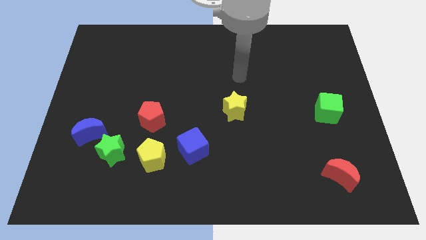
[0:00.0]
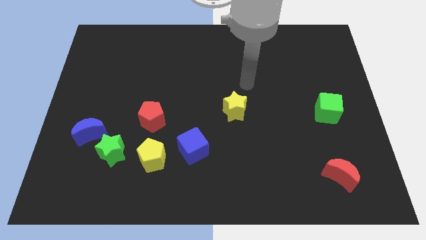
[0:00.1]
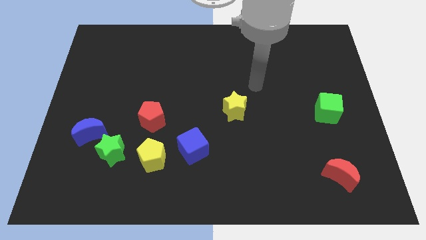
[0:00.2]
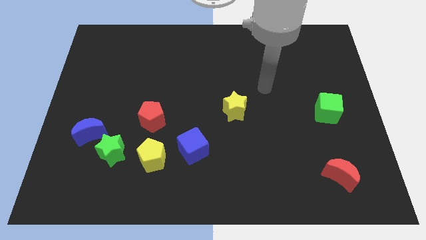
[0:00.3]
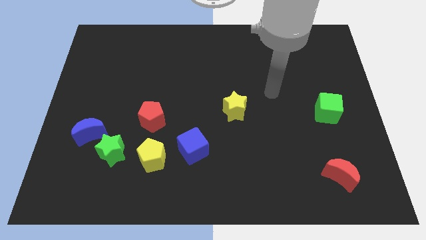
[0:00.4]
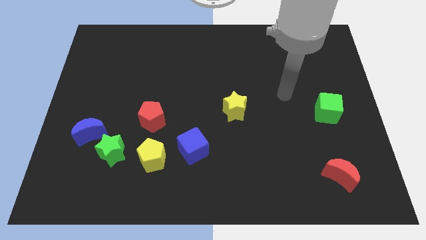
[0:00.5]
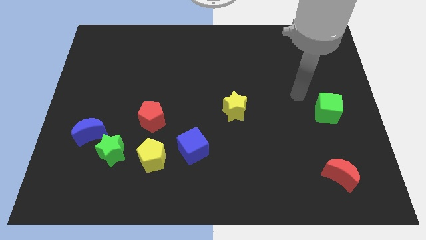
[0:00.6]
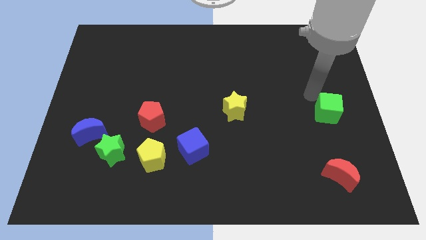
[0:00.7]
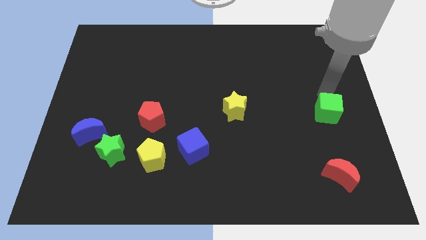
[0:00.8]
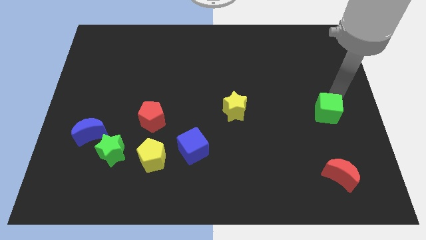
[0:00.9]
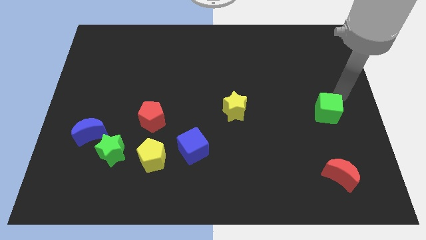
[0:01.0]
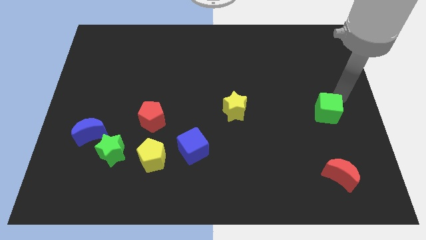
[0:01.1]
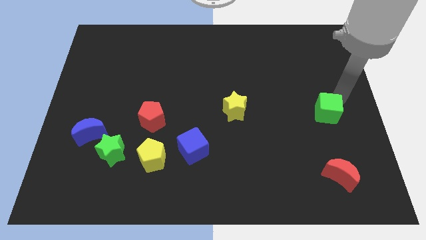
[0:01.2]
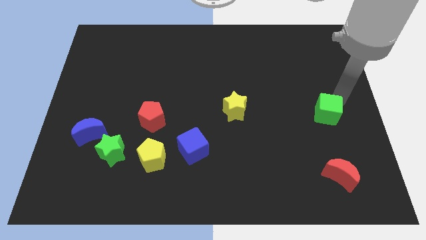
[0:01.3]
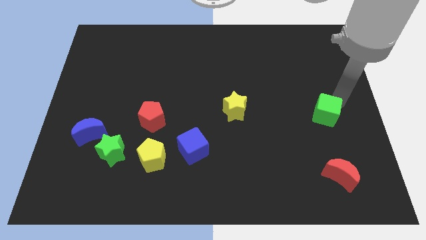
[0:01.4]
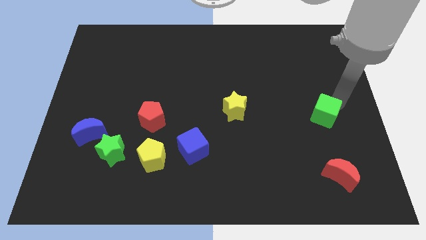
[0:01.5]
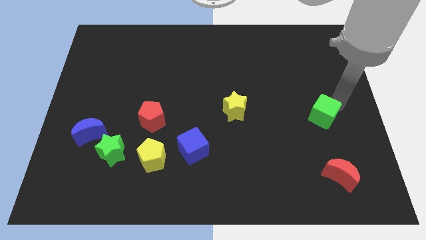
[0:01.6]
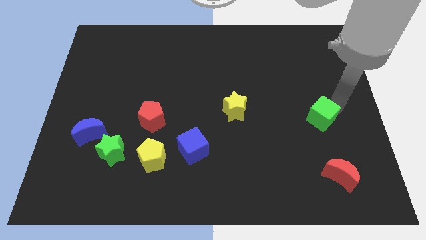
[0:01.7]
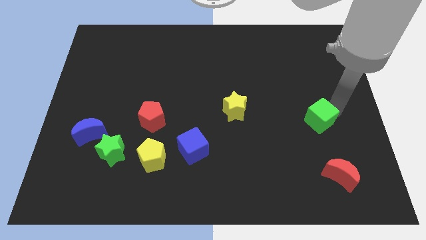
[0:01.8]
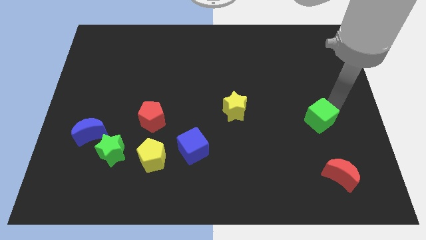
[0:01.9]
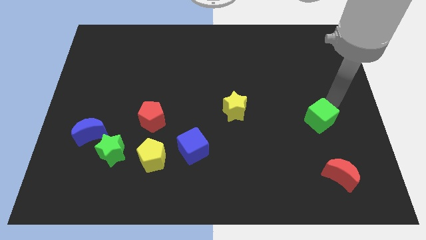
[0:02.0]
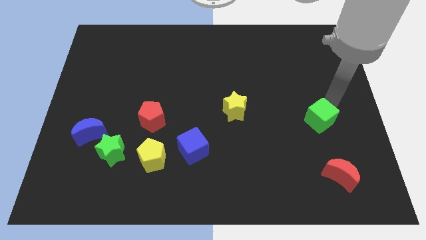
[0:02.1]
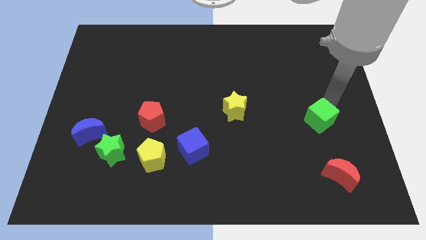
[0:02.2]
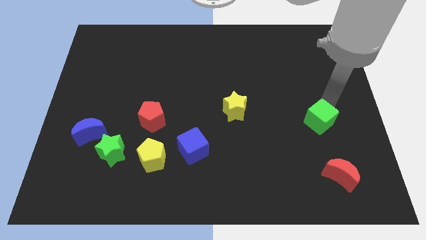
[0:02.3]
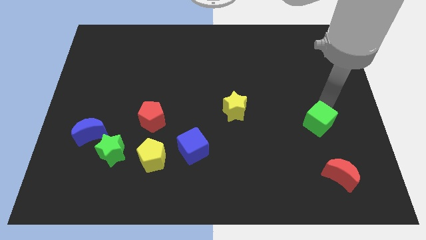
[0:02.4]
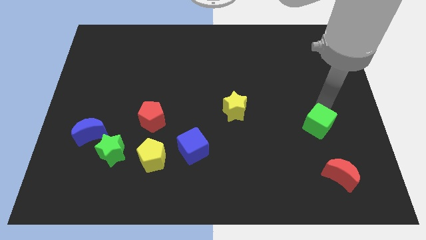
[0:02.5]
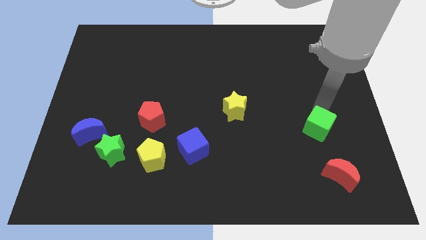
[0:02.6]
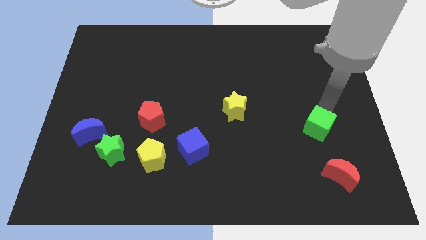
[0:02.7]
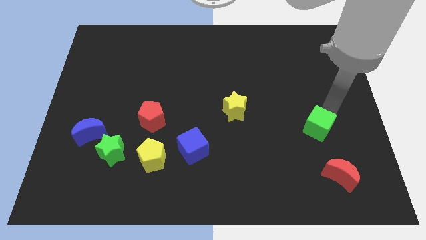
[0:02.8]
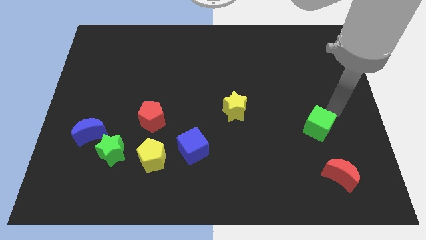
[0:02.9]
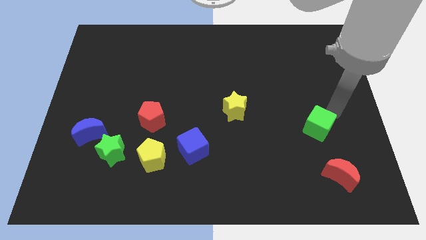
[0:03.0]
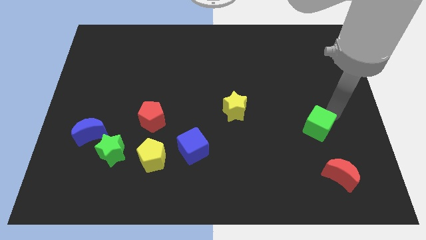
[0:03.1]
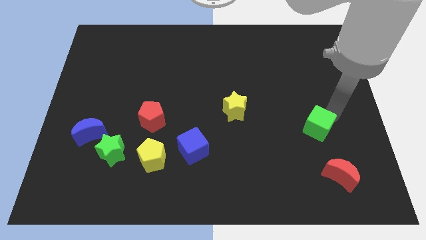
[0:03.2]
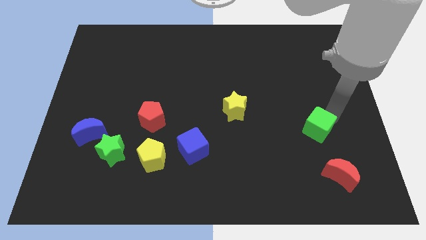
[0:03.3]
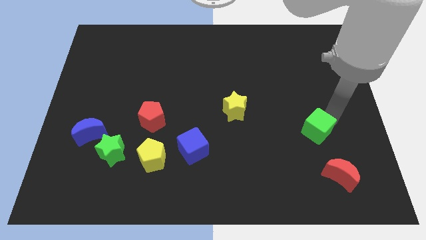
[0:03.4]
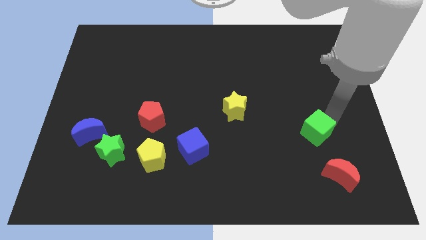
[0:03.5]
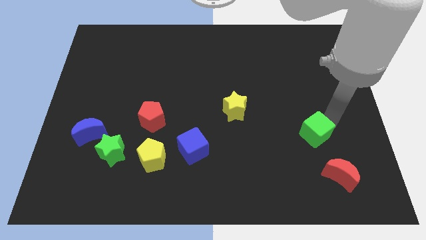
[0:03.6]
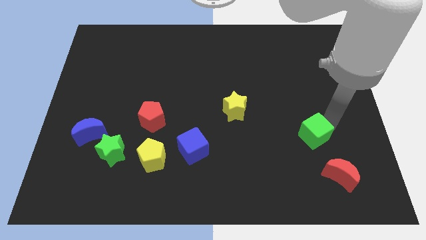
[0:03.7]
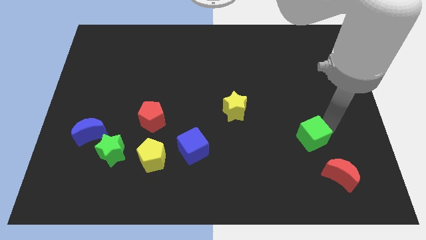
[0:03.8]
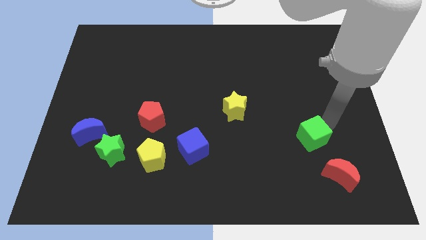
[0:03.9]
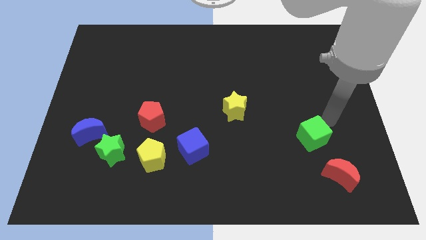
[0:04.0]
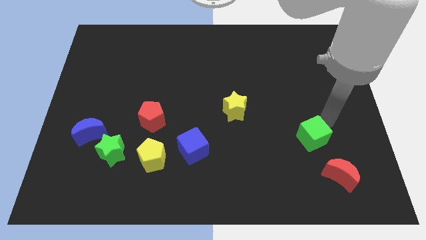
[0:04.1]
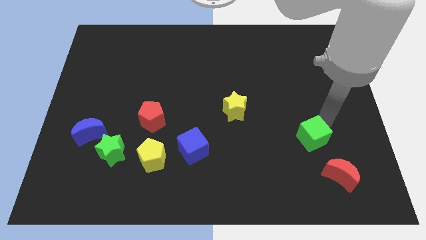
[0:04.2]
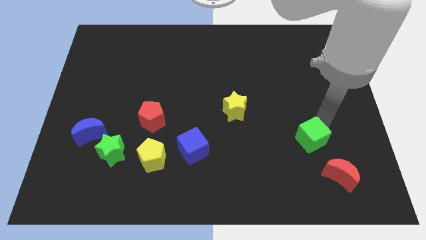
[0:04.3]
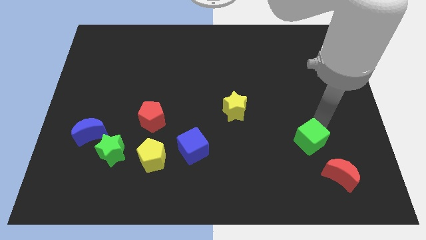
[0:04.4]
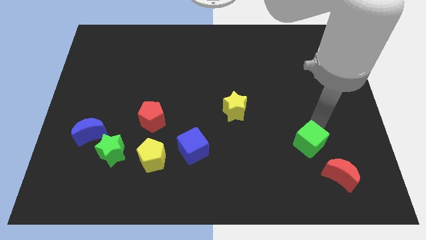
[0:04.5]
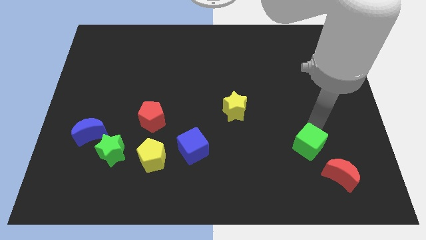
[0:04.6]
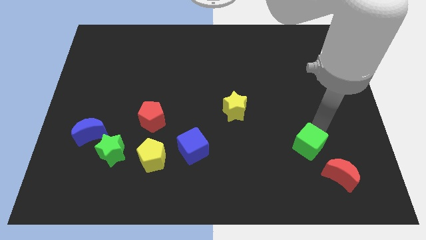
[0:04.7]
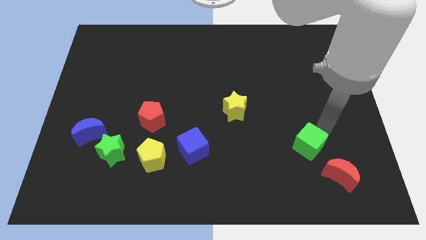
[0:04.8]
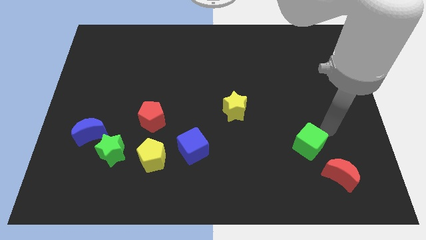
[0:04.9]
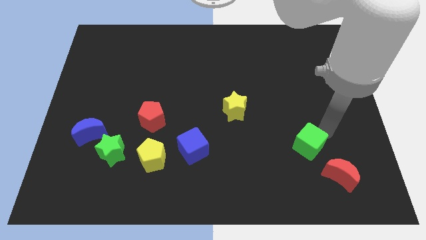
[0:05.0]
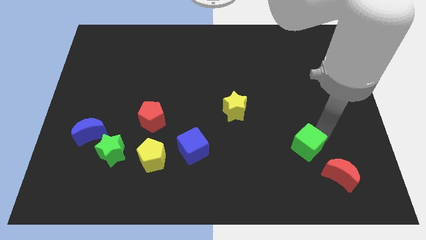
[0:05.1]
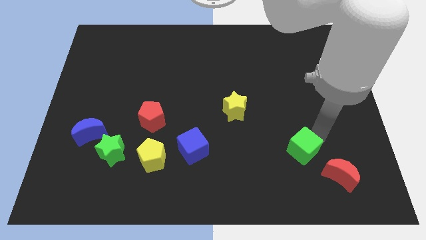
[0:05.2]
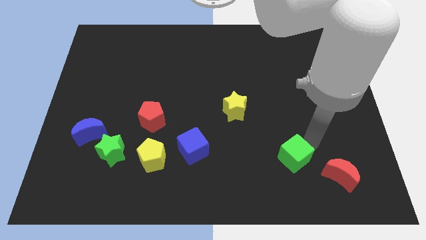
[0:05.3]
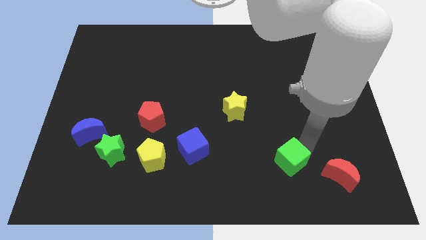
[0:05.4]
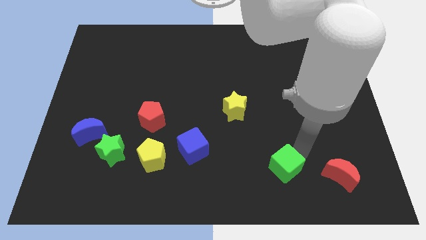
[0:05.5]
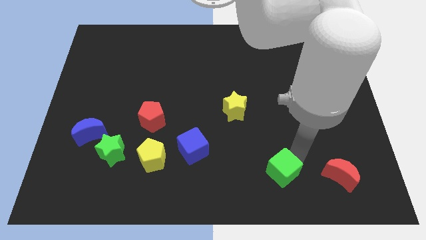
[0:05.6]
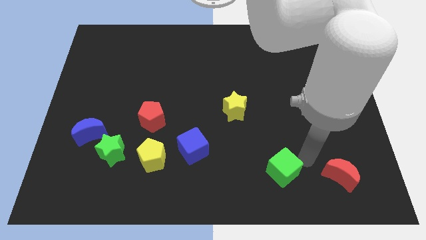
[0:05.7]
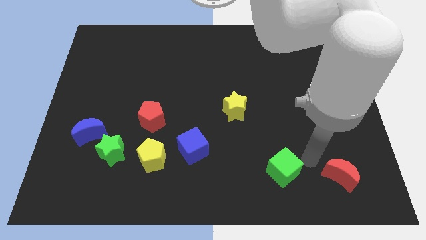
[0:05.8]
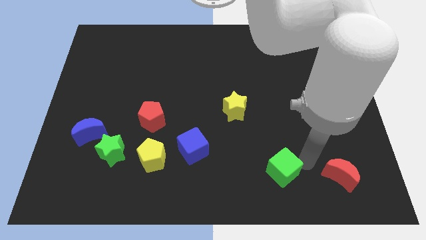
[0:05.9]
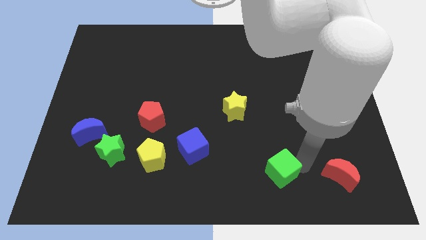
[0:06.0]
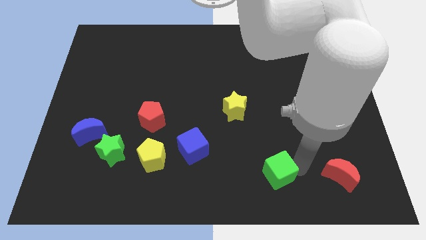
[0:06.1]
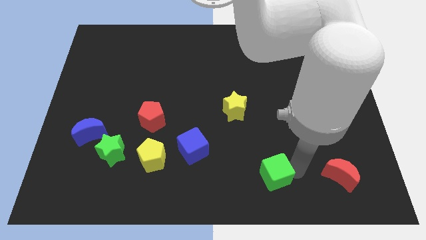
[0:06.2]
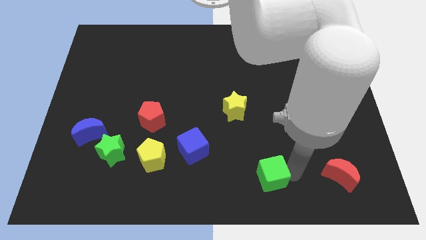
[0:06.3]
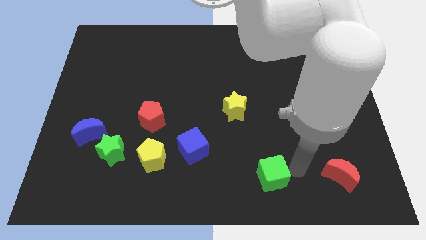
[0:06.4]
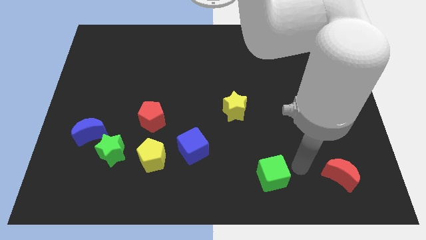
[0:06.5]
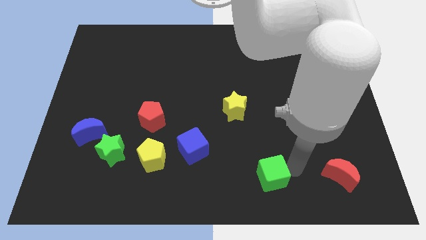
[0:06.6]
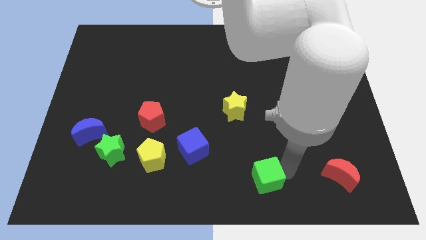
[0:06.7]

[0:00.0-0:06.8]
put the green cube to the bottom
